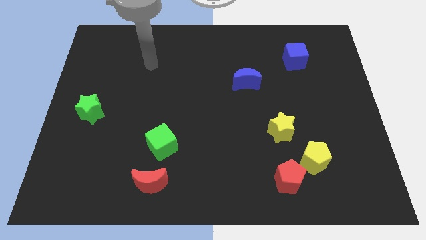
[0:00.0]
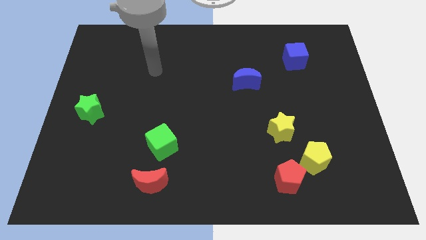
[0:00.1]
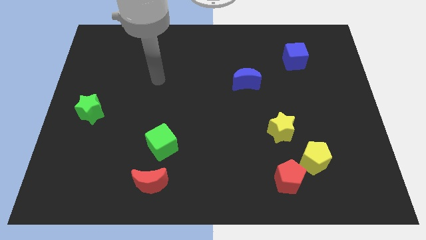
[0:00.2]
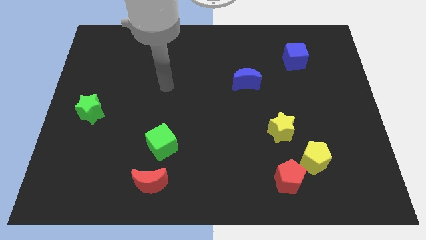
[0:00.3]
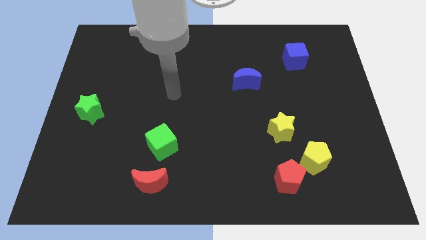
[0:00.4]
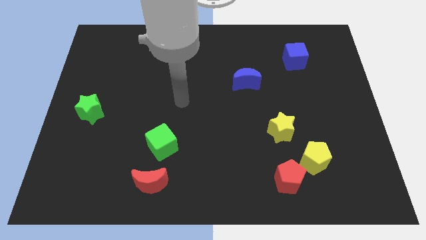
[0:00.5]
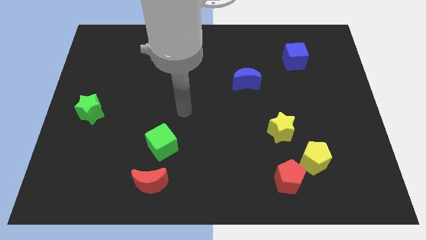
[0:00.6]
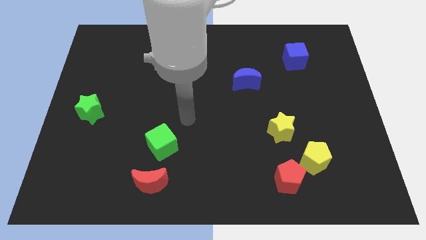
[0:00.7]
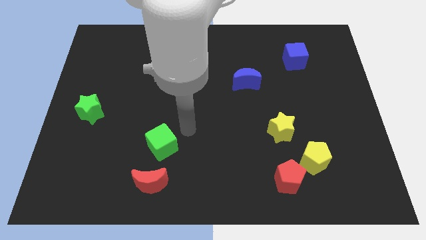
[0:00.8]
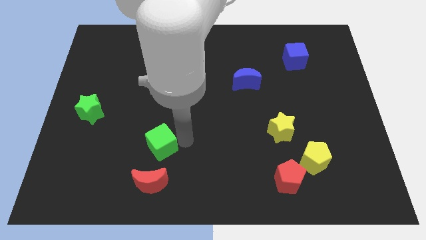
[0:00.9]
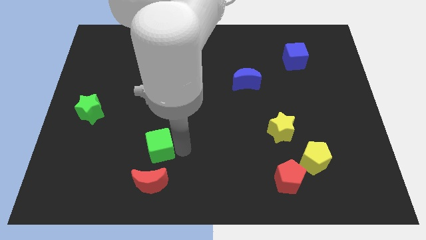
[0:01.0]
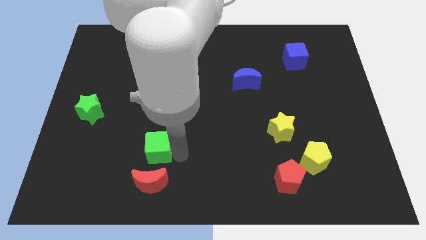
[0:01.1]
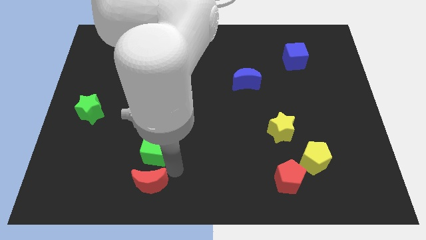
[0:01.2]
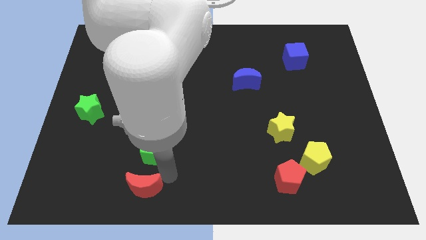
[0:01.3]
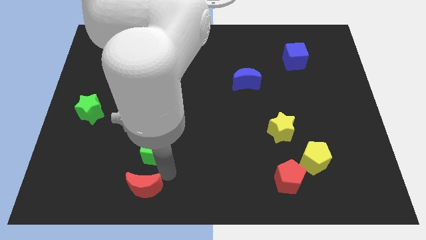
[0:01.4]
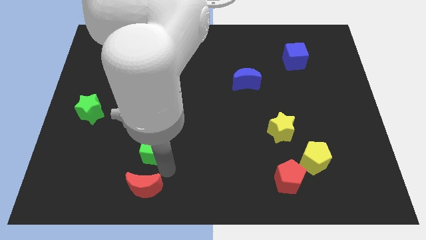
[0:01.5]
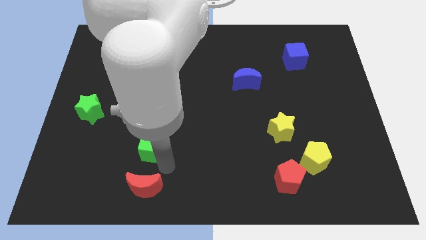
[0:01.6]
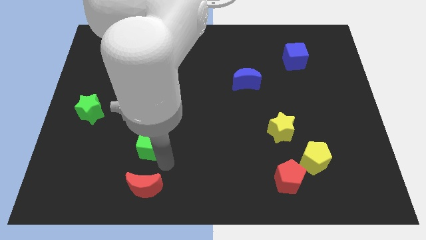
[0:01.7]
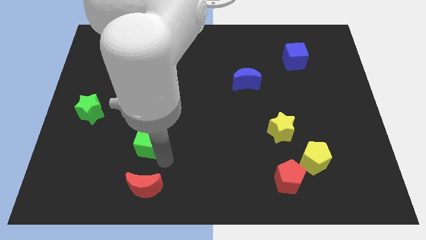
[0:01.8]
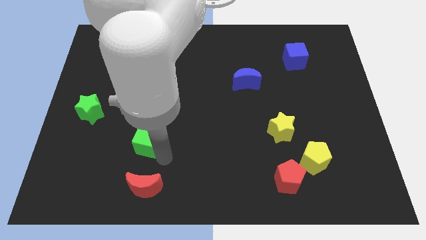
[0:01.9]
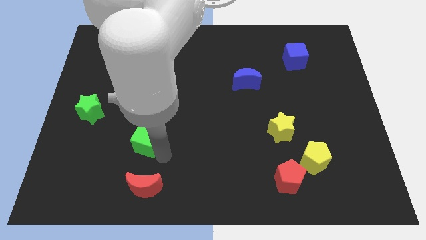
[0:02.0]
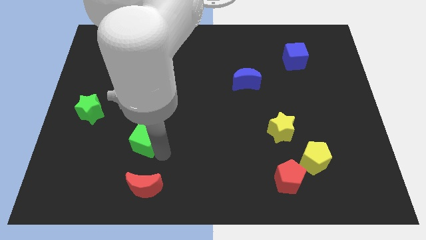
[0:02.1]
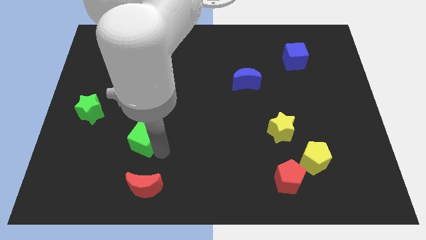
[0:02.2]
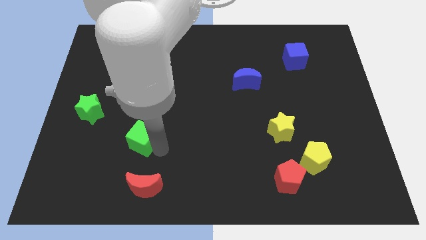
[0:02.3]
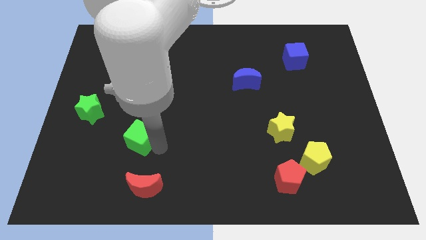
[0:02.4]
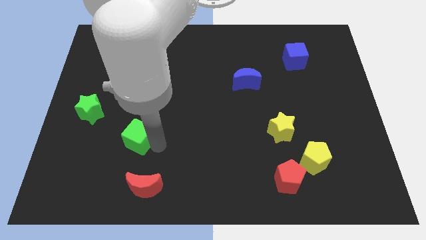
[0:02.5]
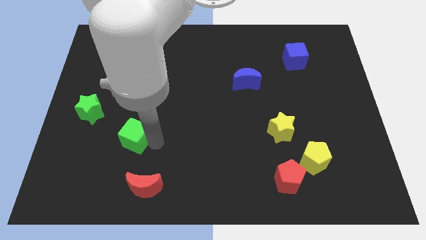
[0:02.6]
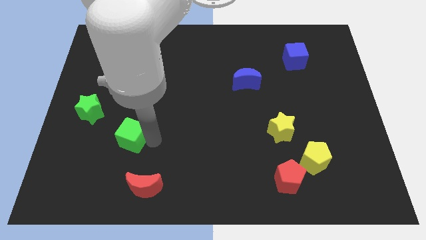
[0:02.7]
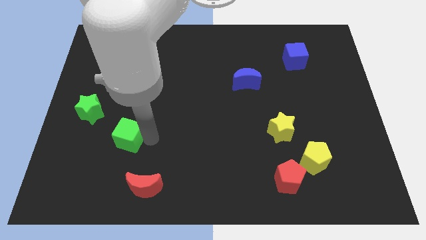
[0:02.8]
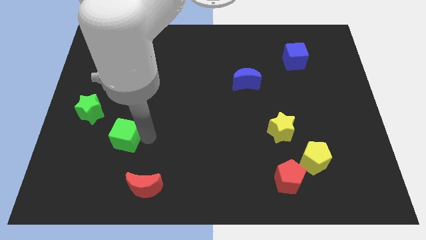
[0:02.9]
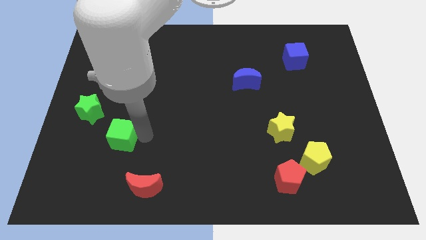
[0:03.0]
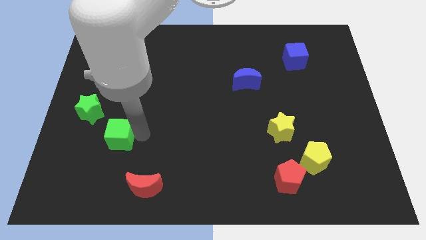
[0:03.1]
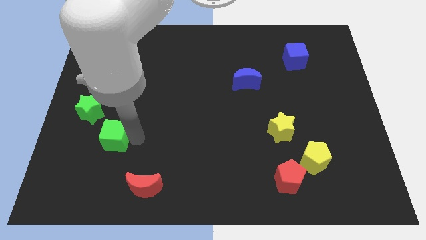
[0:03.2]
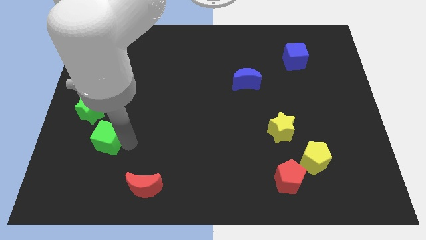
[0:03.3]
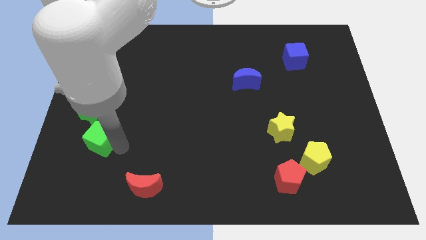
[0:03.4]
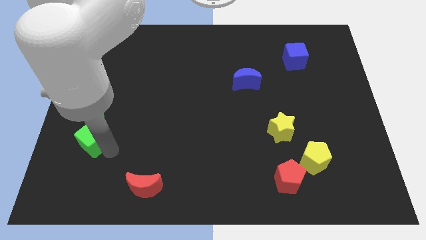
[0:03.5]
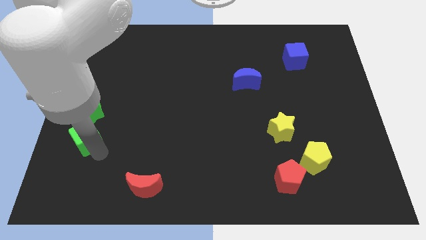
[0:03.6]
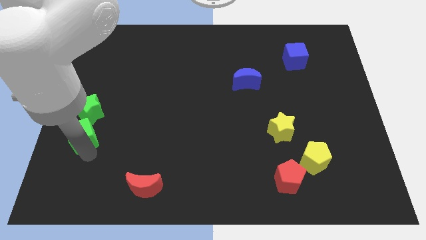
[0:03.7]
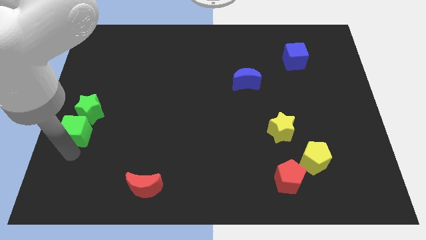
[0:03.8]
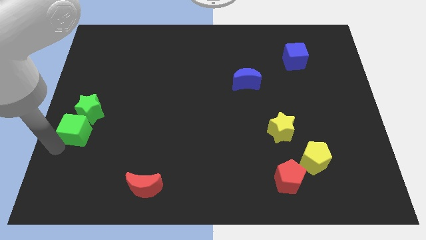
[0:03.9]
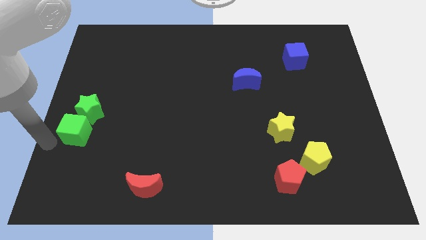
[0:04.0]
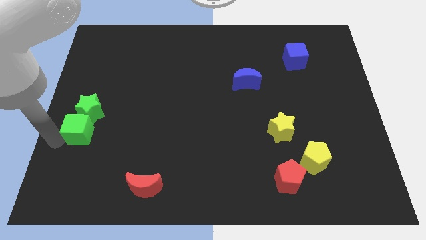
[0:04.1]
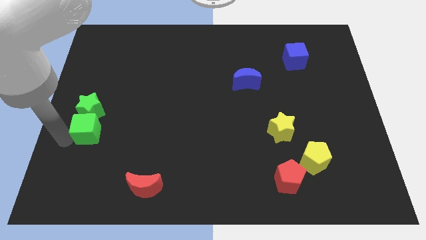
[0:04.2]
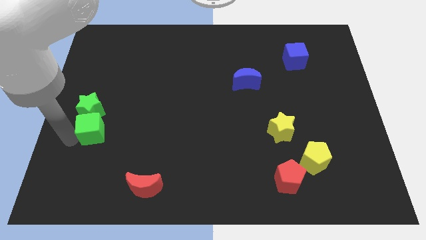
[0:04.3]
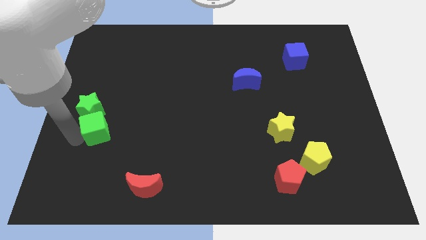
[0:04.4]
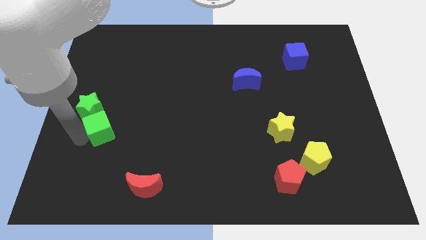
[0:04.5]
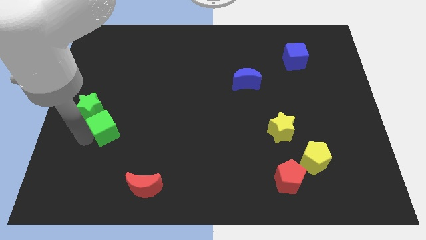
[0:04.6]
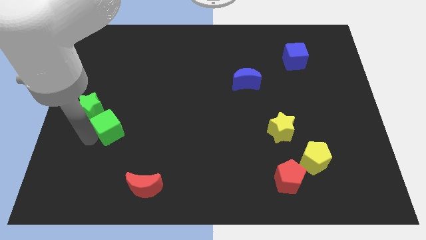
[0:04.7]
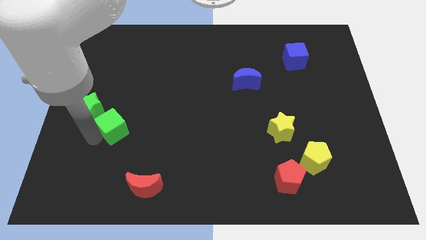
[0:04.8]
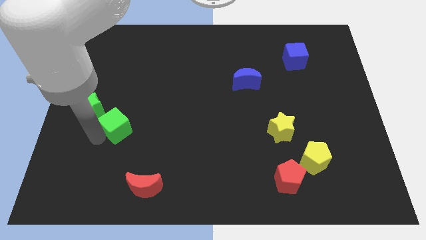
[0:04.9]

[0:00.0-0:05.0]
put the green cube to the right side of the green star
